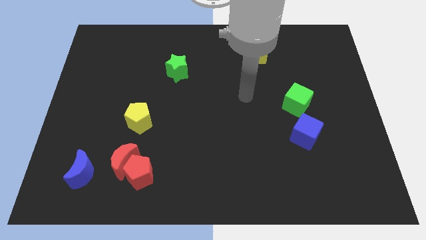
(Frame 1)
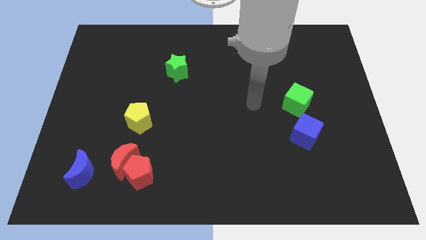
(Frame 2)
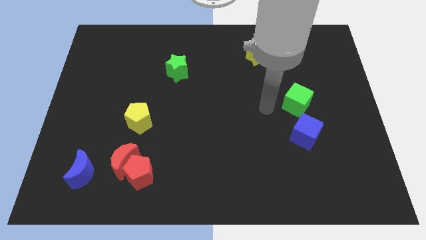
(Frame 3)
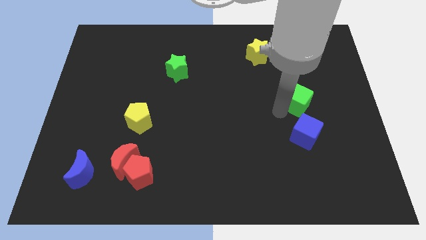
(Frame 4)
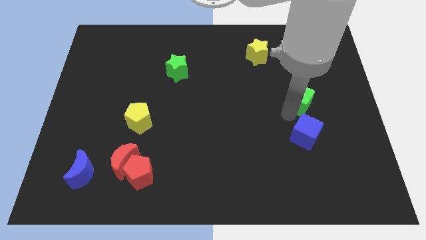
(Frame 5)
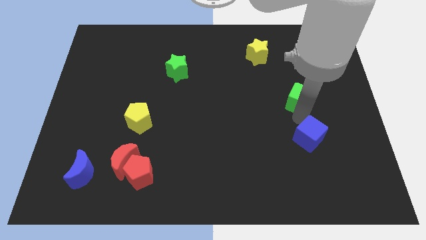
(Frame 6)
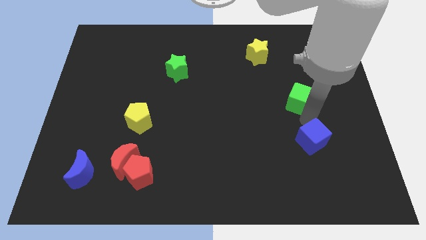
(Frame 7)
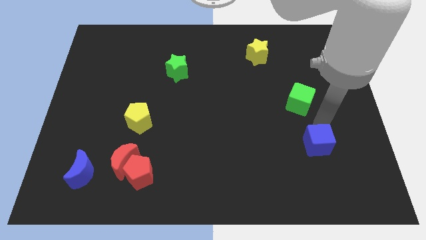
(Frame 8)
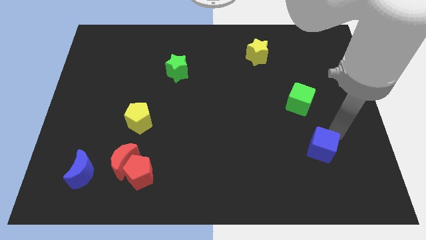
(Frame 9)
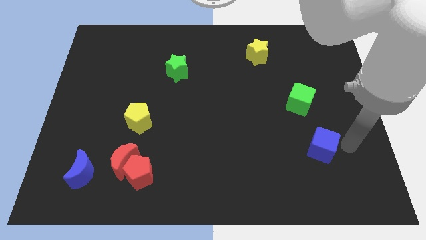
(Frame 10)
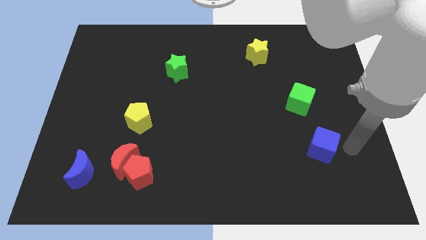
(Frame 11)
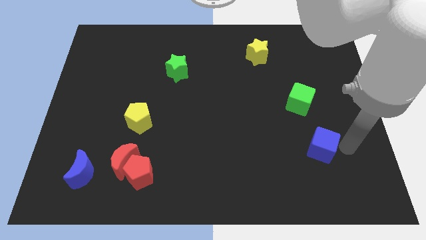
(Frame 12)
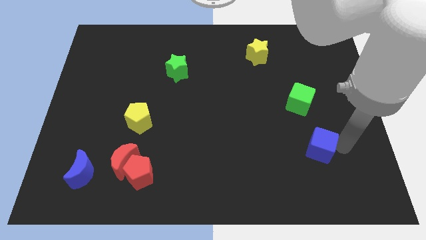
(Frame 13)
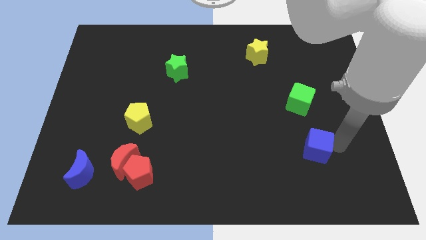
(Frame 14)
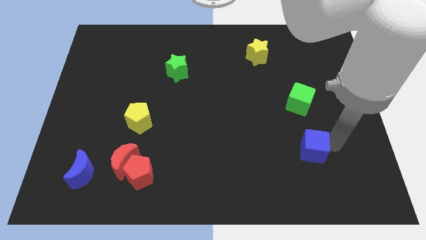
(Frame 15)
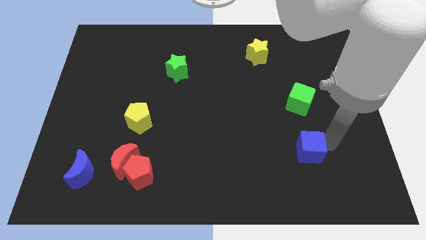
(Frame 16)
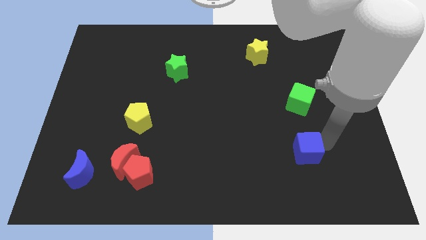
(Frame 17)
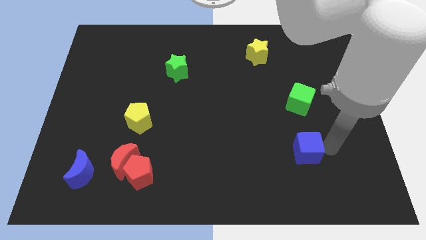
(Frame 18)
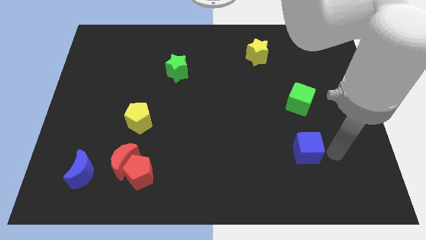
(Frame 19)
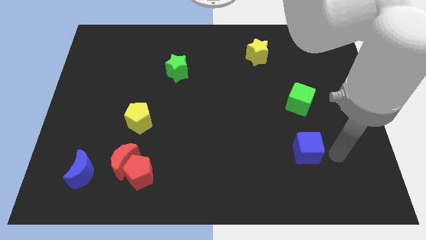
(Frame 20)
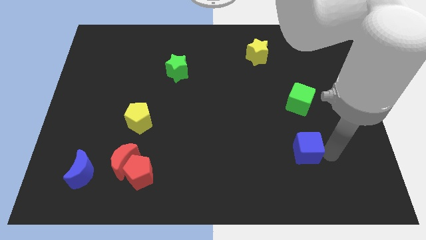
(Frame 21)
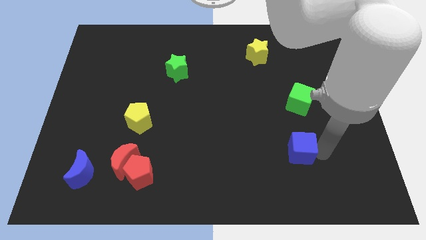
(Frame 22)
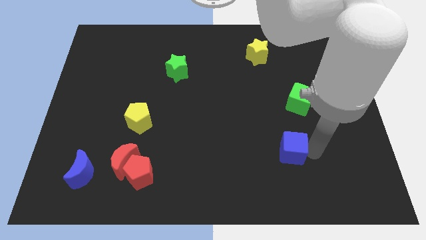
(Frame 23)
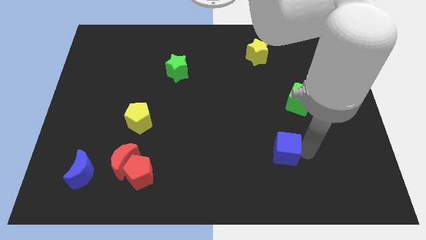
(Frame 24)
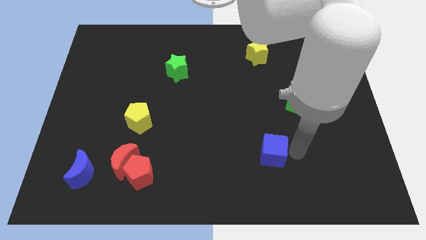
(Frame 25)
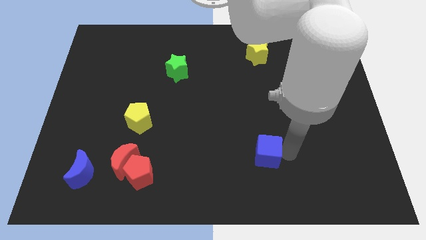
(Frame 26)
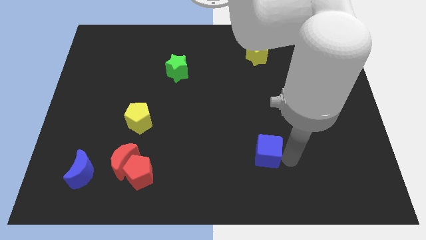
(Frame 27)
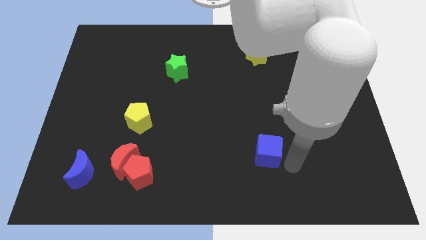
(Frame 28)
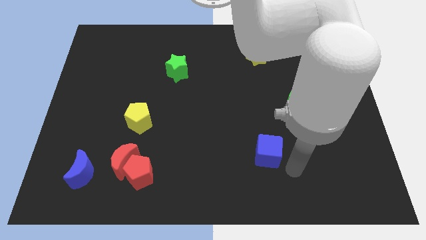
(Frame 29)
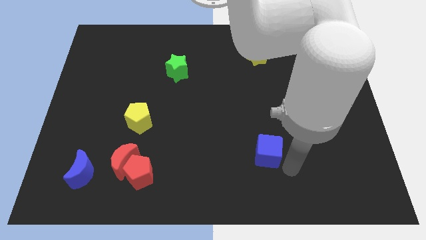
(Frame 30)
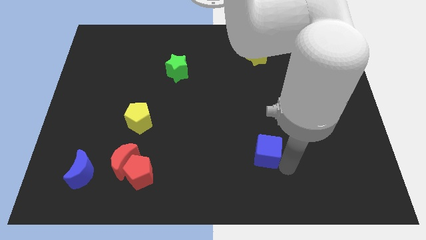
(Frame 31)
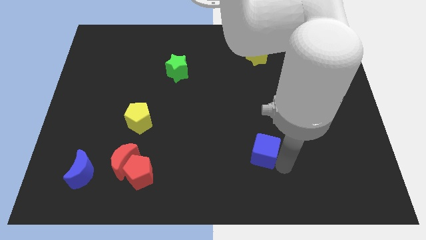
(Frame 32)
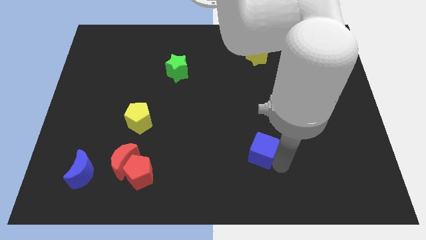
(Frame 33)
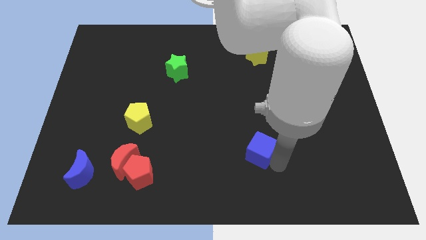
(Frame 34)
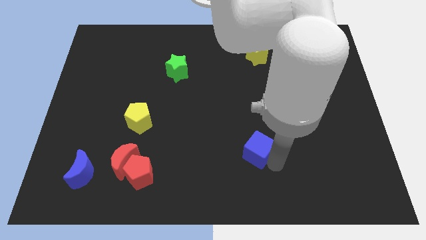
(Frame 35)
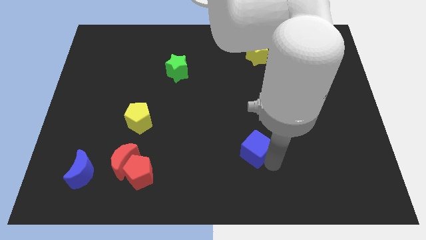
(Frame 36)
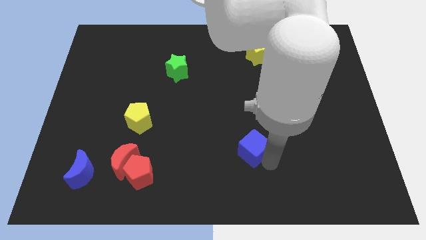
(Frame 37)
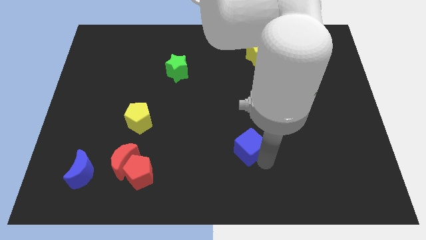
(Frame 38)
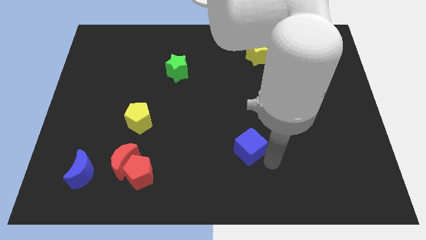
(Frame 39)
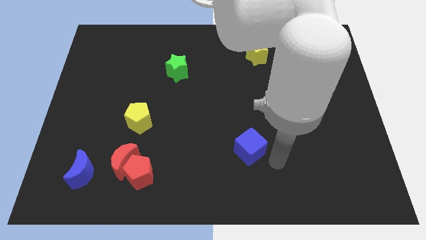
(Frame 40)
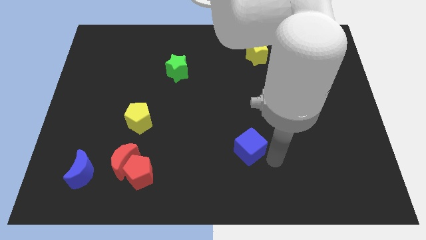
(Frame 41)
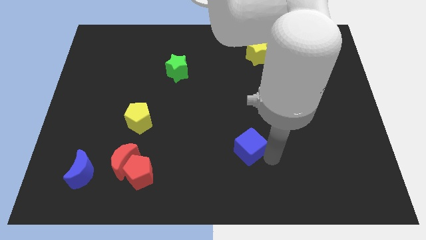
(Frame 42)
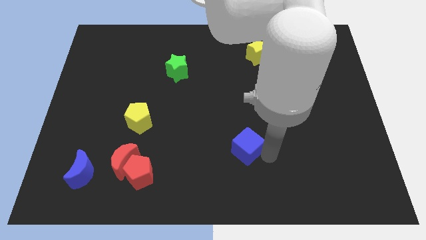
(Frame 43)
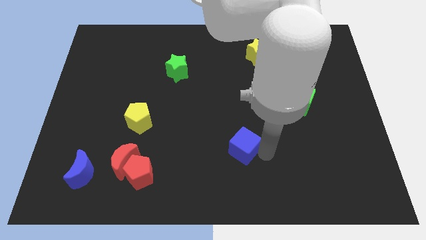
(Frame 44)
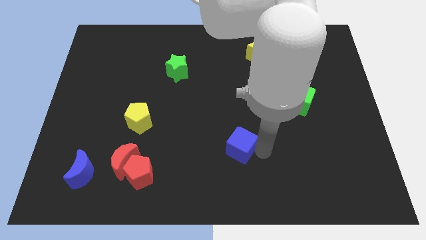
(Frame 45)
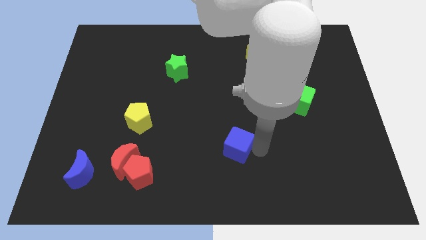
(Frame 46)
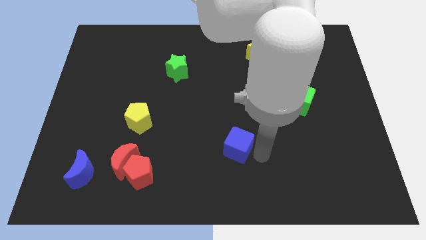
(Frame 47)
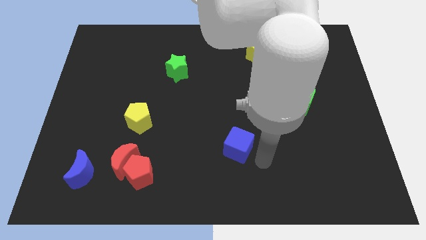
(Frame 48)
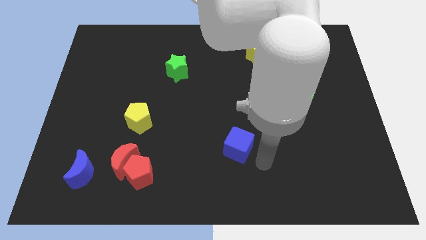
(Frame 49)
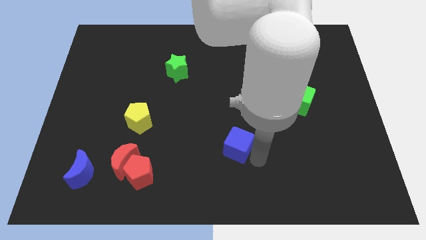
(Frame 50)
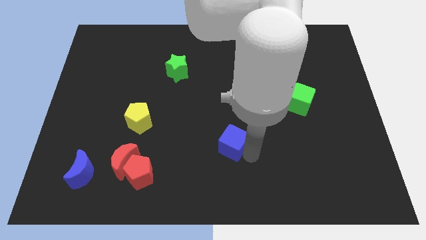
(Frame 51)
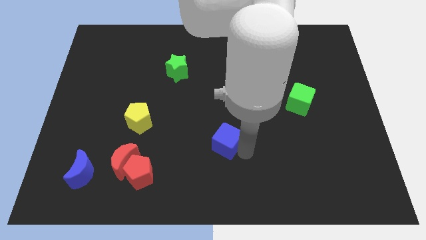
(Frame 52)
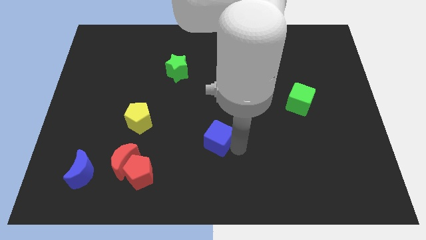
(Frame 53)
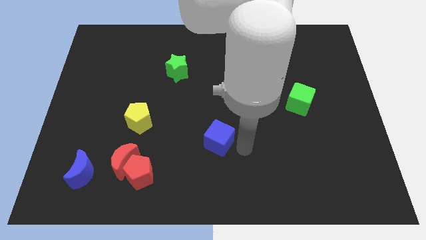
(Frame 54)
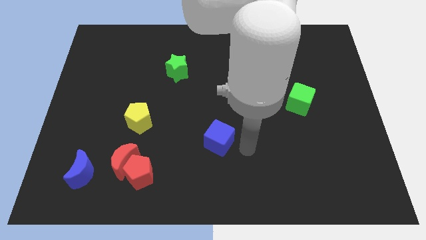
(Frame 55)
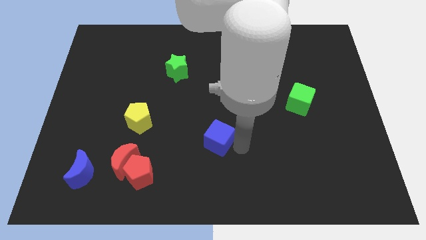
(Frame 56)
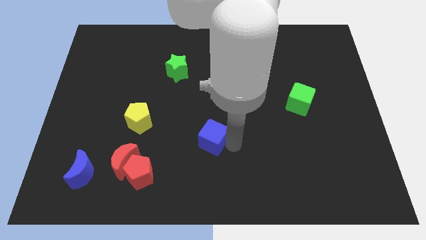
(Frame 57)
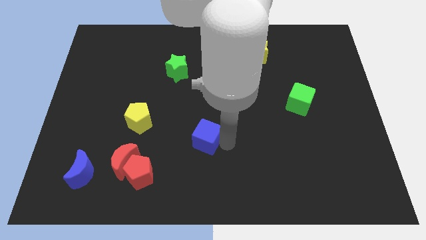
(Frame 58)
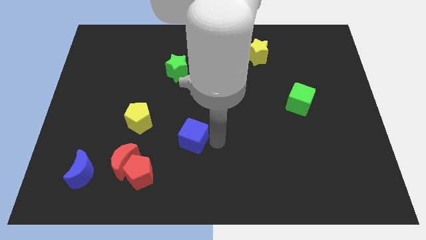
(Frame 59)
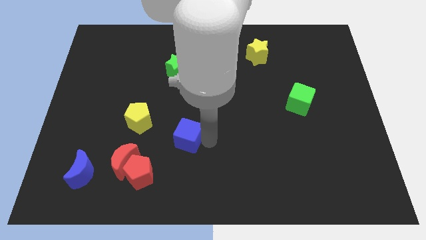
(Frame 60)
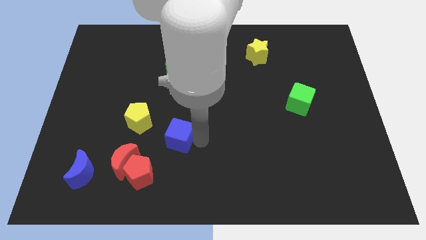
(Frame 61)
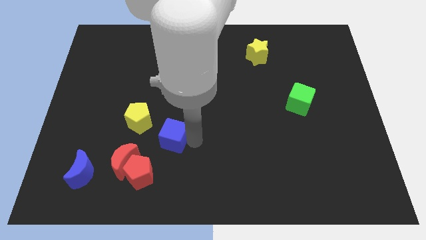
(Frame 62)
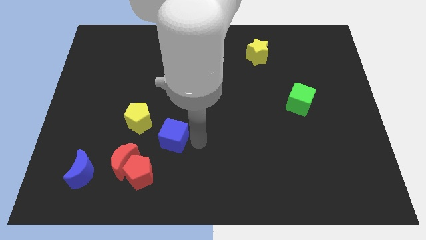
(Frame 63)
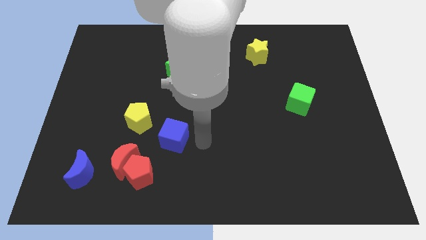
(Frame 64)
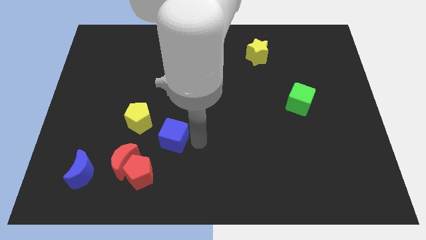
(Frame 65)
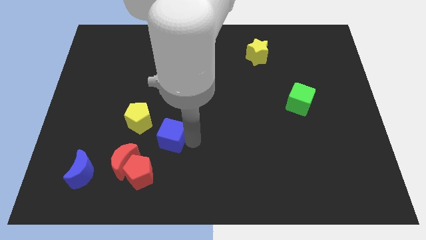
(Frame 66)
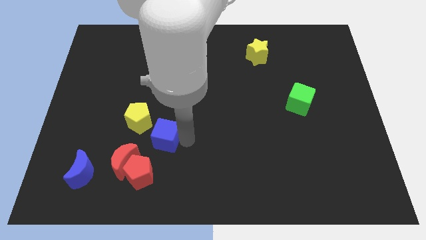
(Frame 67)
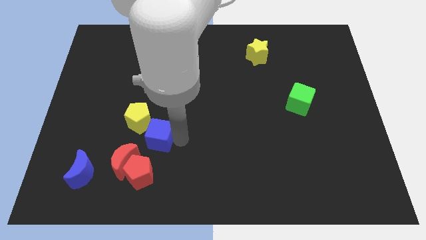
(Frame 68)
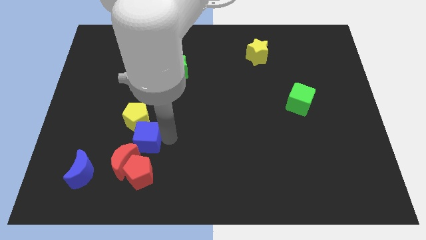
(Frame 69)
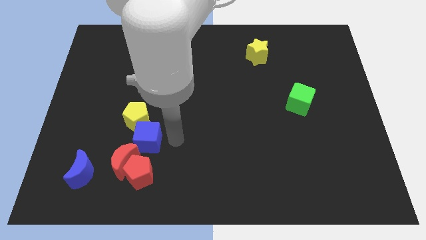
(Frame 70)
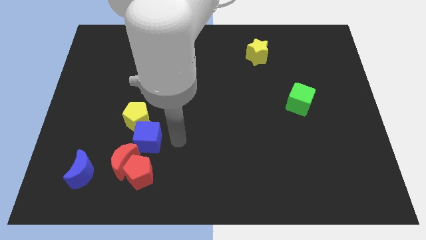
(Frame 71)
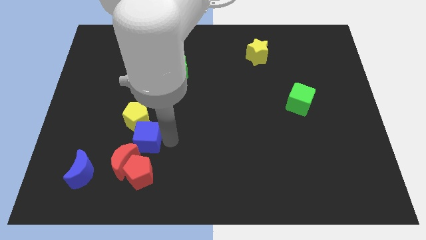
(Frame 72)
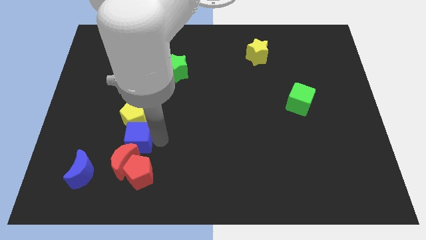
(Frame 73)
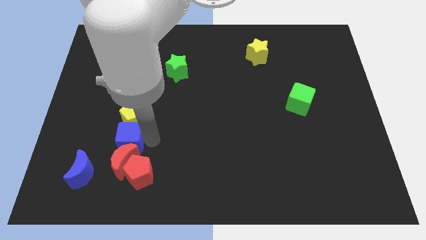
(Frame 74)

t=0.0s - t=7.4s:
slide the blue cube to the bottom left of the yellow pentagon

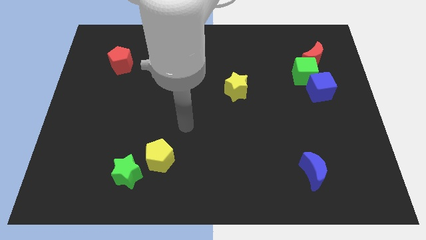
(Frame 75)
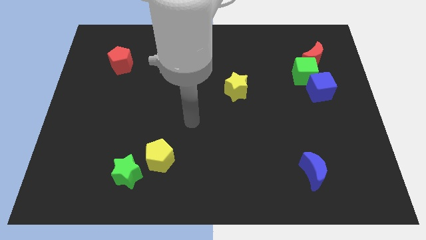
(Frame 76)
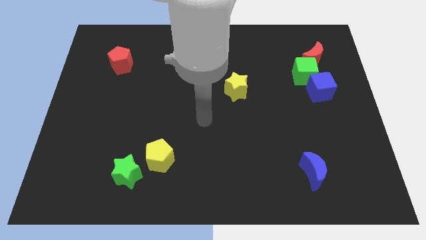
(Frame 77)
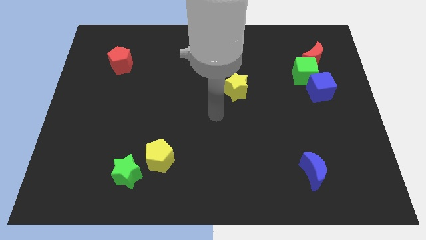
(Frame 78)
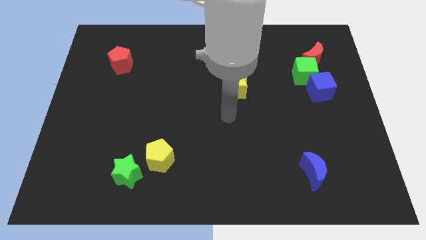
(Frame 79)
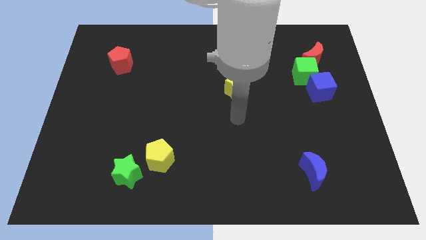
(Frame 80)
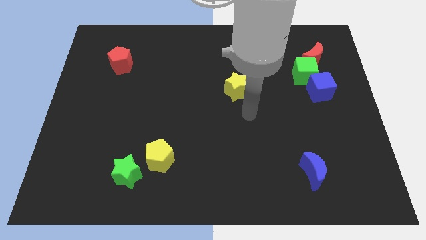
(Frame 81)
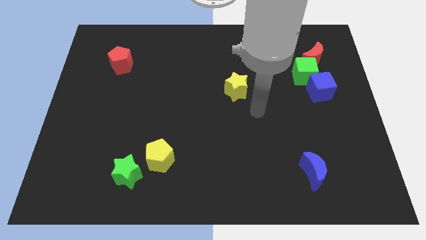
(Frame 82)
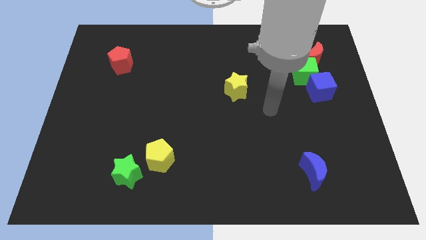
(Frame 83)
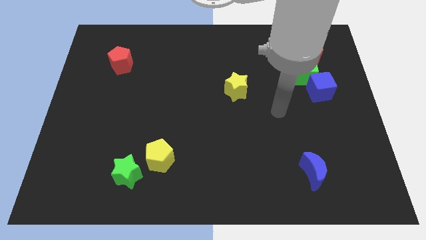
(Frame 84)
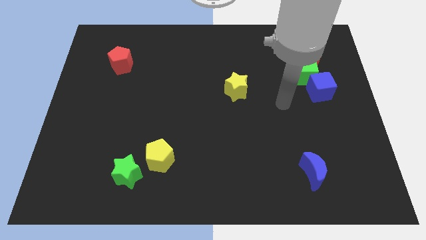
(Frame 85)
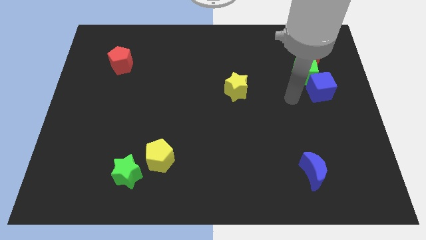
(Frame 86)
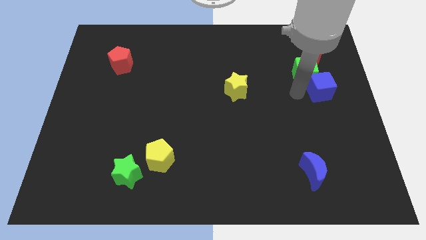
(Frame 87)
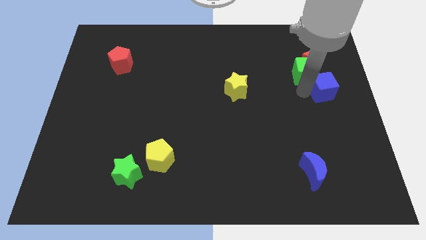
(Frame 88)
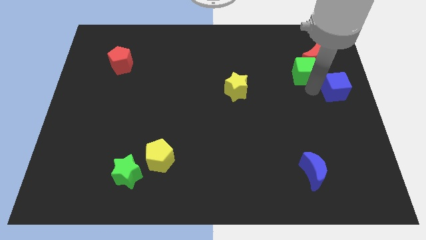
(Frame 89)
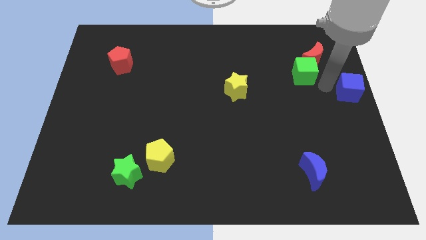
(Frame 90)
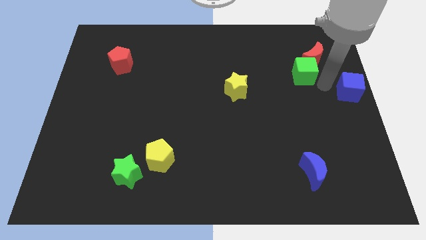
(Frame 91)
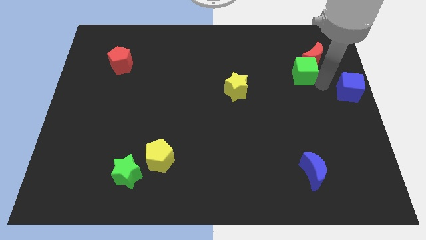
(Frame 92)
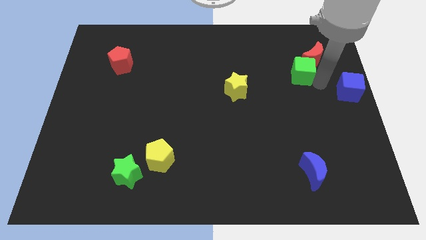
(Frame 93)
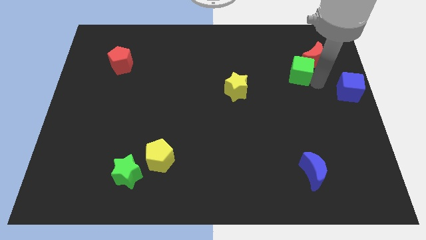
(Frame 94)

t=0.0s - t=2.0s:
slide the green cube just left of the red moon
